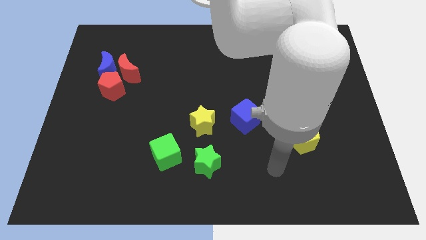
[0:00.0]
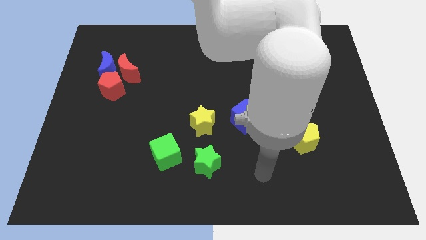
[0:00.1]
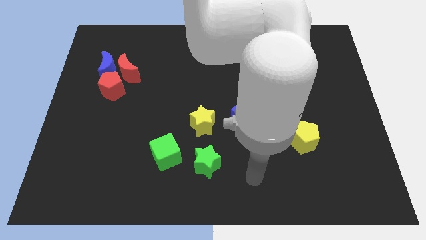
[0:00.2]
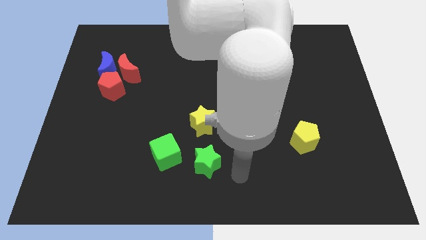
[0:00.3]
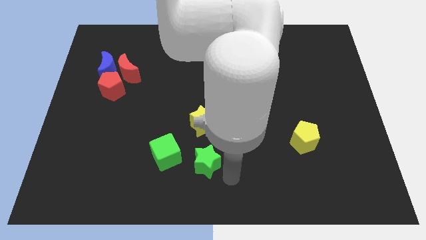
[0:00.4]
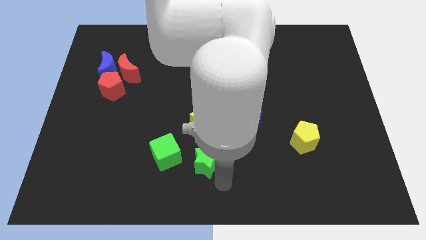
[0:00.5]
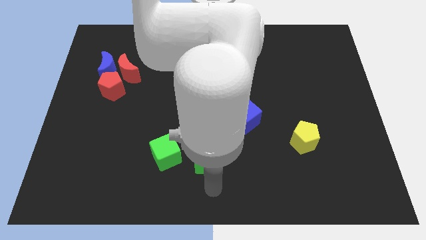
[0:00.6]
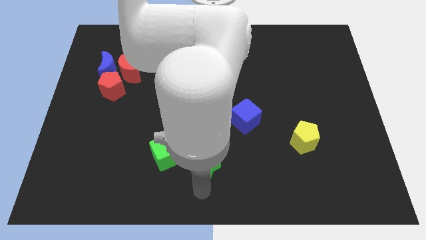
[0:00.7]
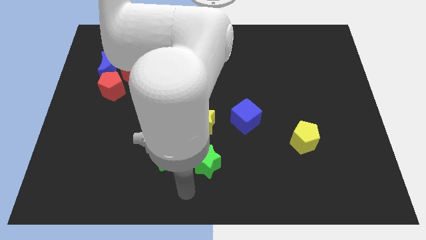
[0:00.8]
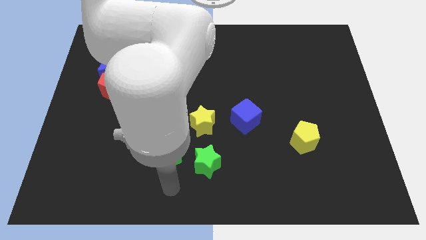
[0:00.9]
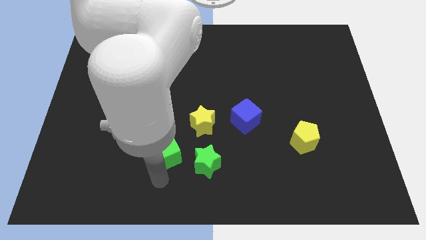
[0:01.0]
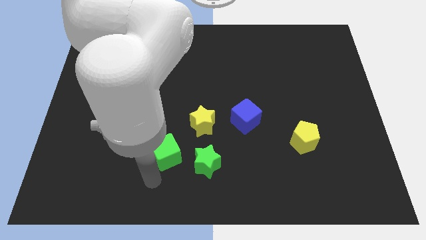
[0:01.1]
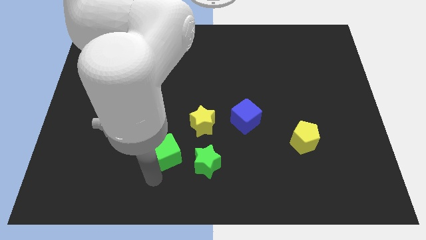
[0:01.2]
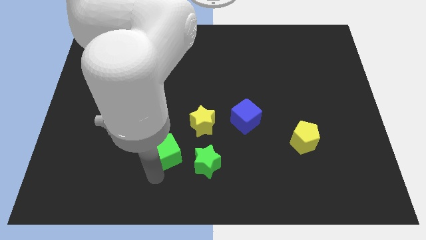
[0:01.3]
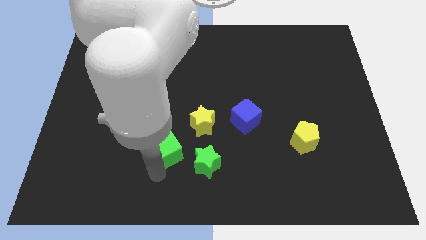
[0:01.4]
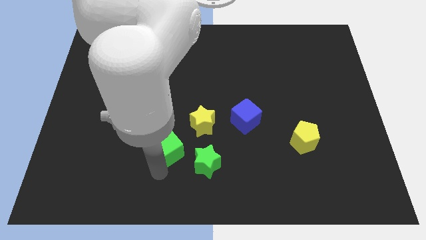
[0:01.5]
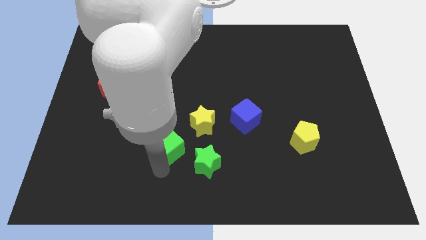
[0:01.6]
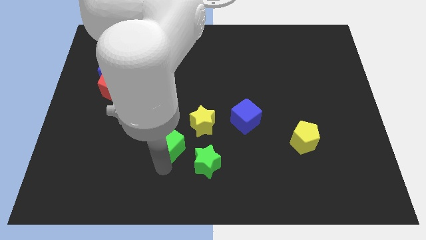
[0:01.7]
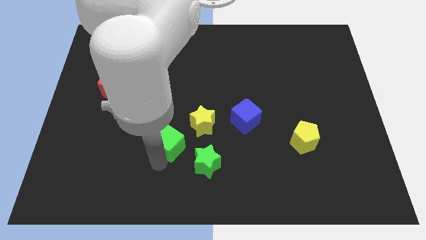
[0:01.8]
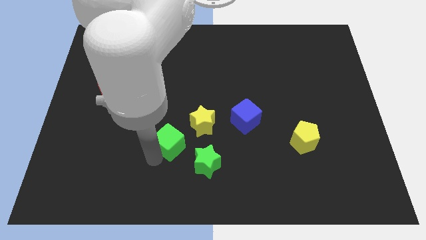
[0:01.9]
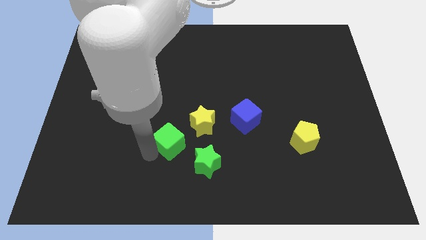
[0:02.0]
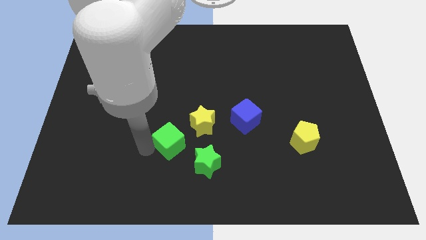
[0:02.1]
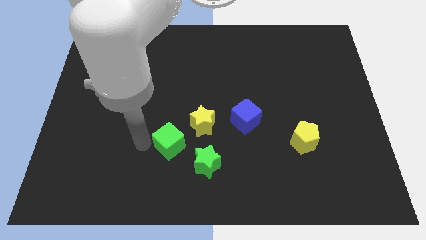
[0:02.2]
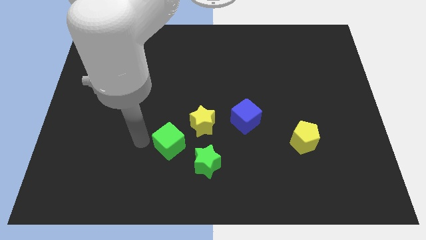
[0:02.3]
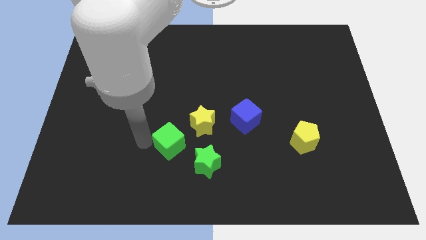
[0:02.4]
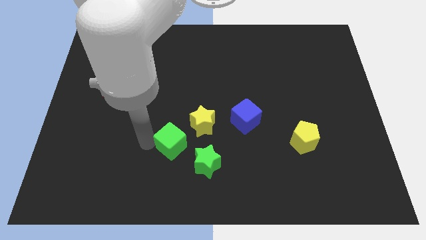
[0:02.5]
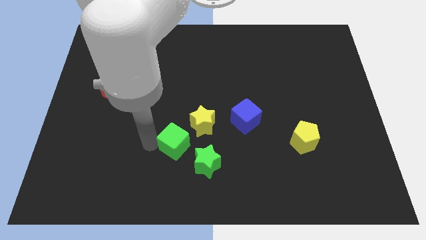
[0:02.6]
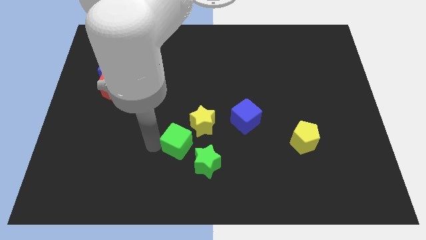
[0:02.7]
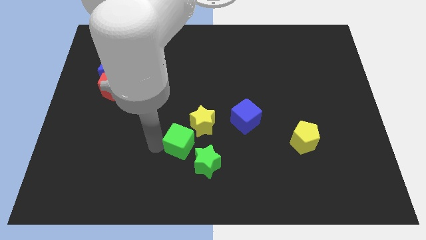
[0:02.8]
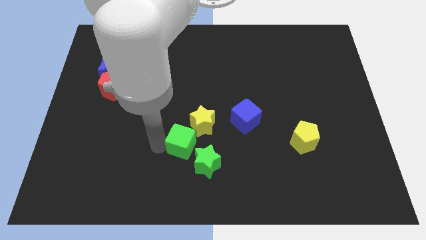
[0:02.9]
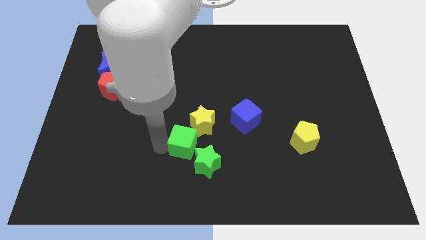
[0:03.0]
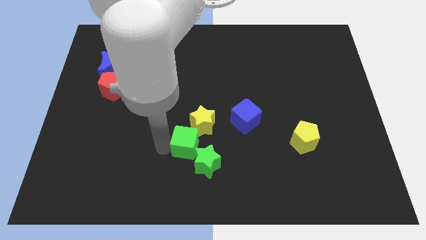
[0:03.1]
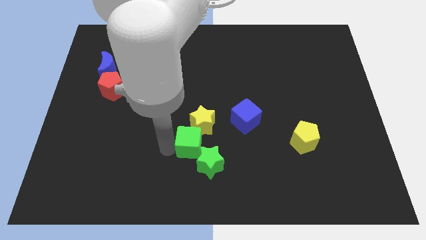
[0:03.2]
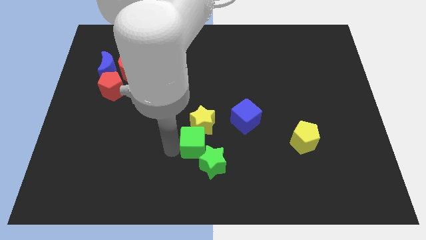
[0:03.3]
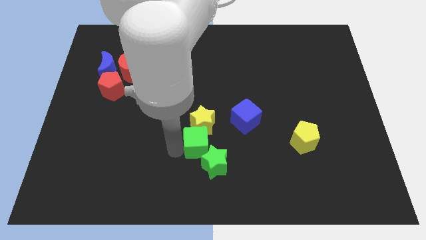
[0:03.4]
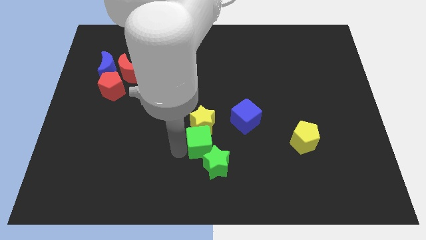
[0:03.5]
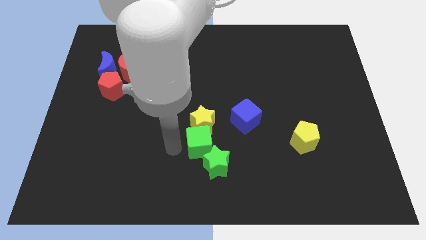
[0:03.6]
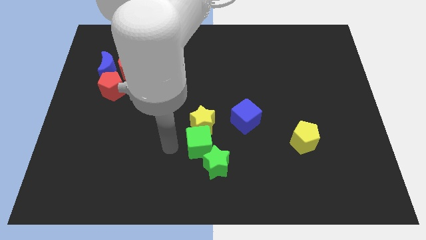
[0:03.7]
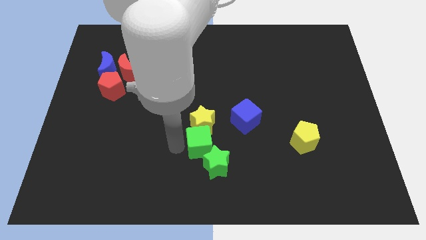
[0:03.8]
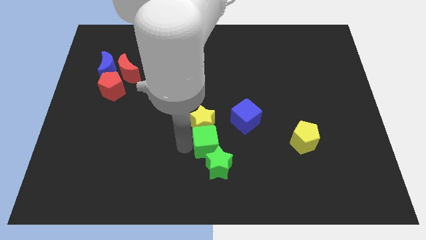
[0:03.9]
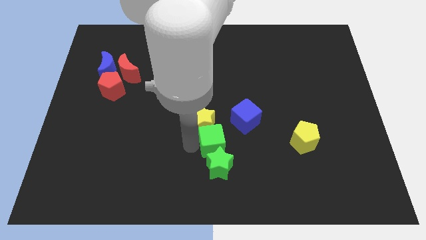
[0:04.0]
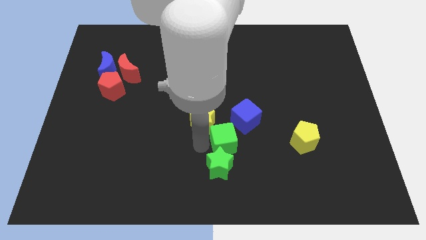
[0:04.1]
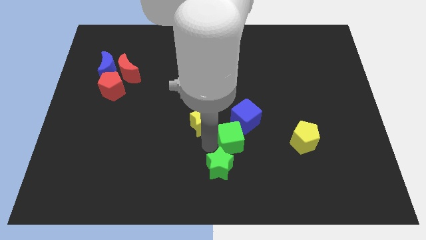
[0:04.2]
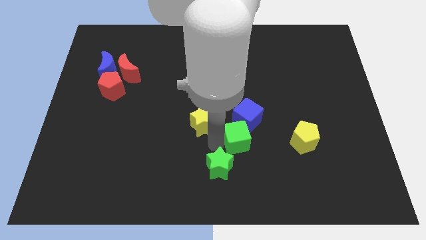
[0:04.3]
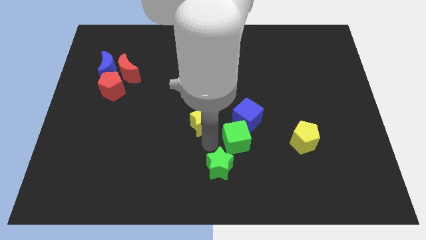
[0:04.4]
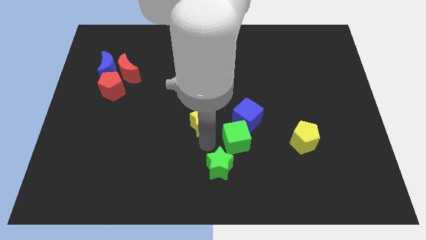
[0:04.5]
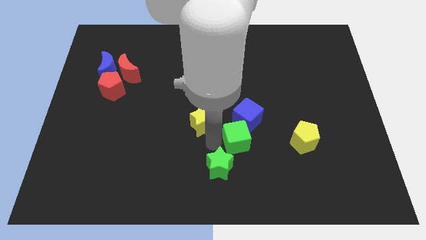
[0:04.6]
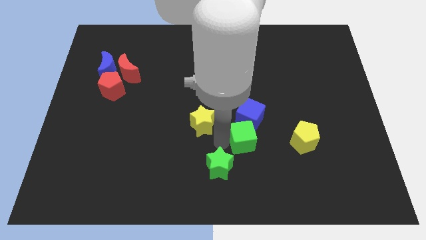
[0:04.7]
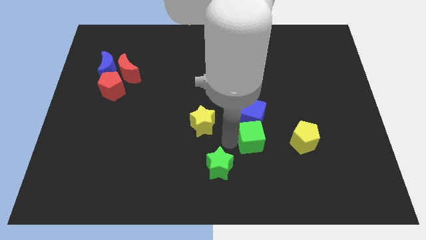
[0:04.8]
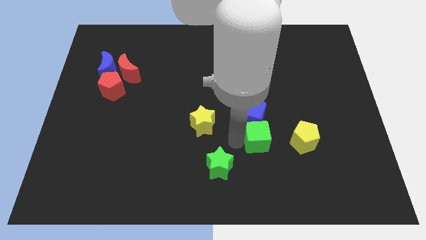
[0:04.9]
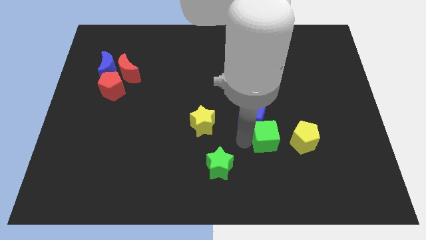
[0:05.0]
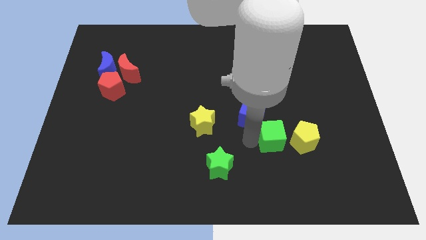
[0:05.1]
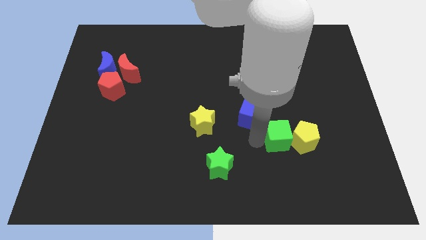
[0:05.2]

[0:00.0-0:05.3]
put the green cube towards the yellow pentagon
